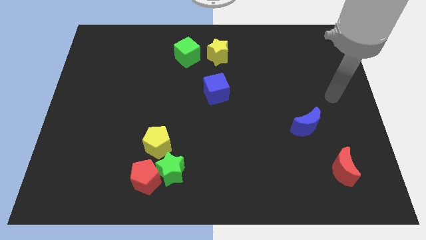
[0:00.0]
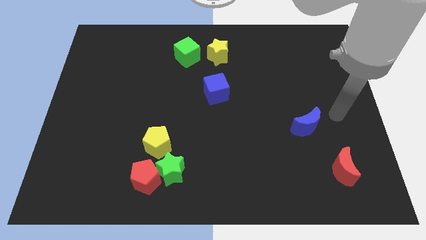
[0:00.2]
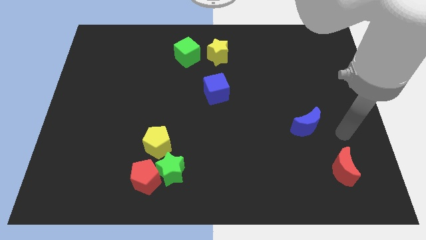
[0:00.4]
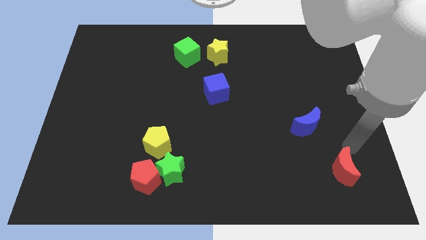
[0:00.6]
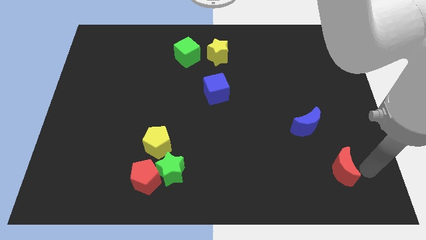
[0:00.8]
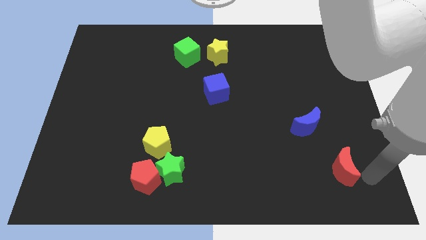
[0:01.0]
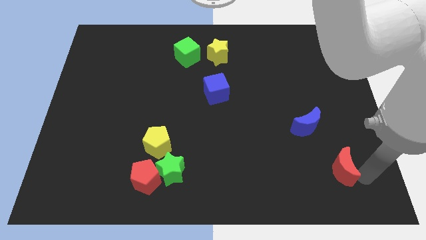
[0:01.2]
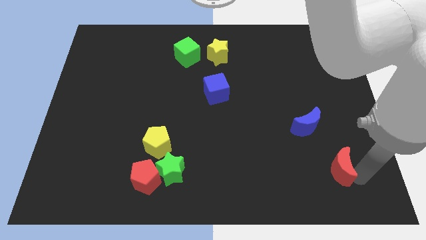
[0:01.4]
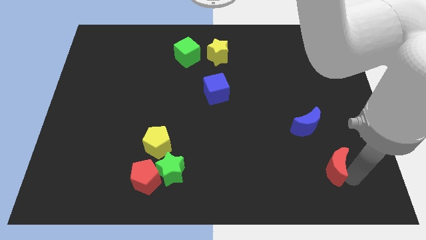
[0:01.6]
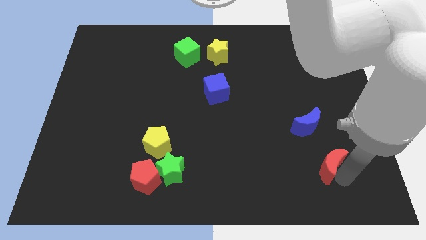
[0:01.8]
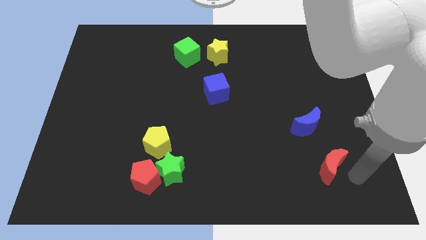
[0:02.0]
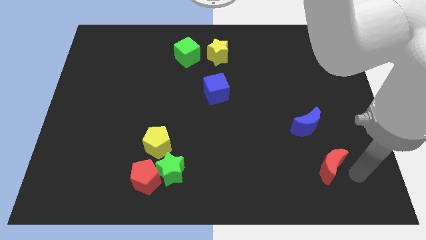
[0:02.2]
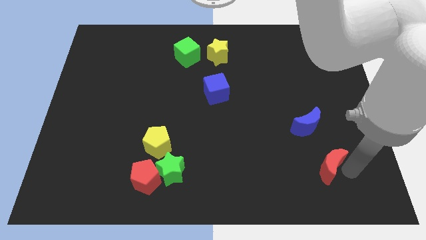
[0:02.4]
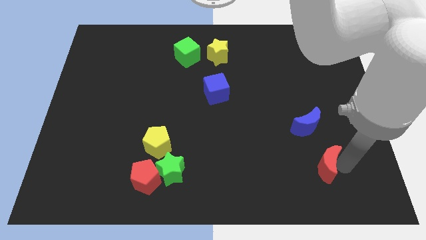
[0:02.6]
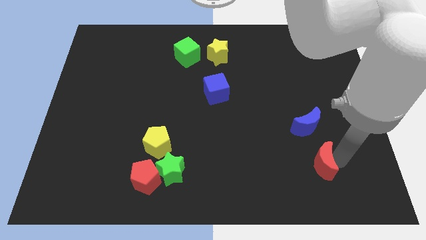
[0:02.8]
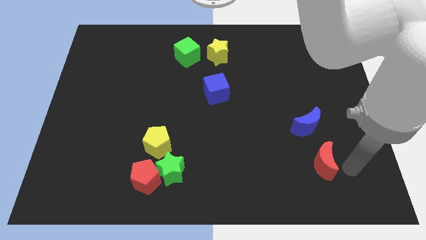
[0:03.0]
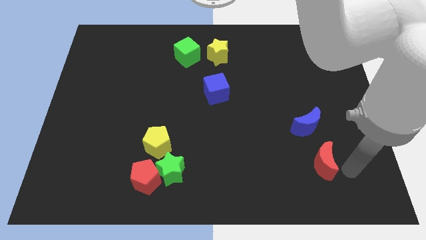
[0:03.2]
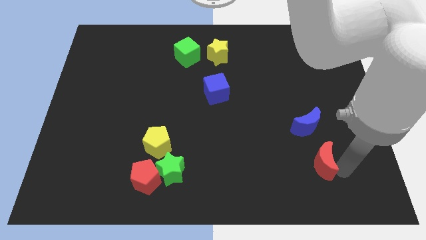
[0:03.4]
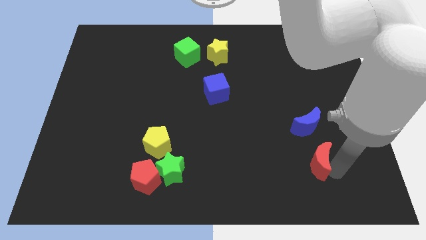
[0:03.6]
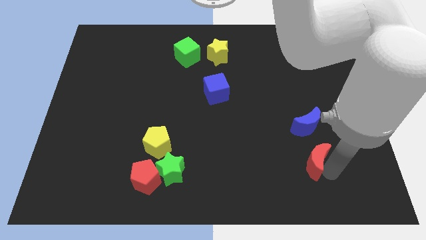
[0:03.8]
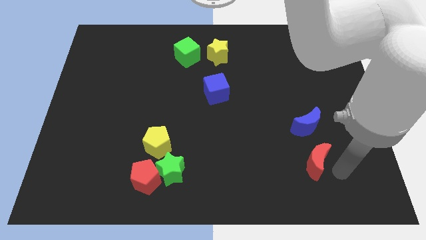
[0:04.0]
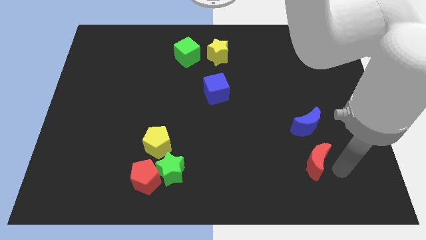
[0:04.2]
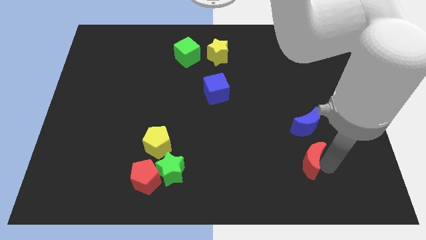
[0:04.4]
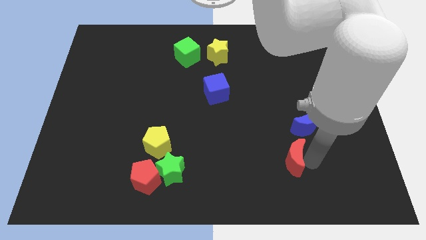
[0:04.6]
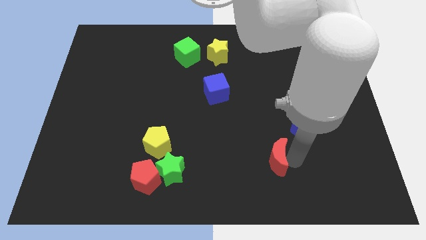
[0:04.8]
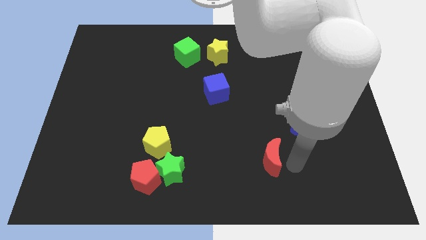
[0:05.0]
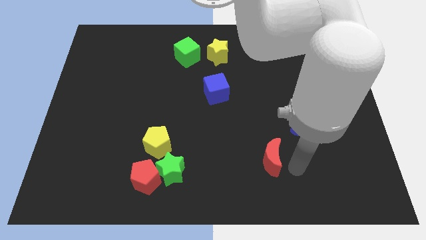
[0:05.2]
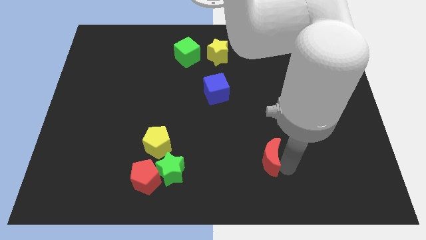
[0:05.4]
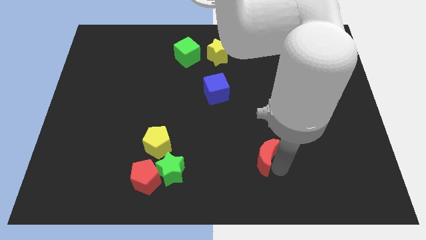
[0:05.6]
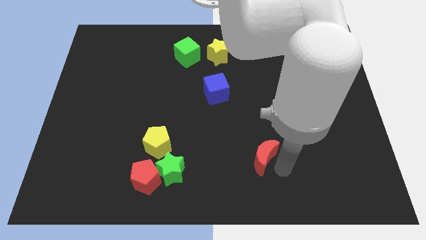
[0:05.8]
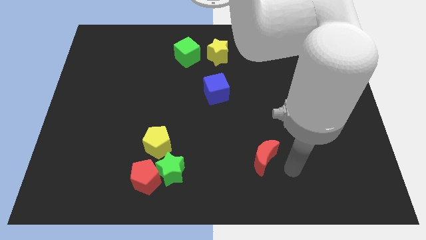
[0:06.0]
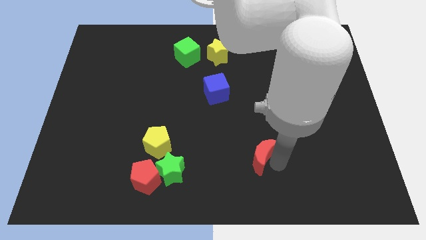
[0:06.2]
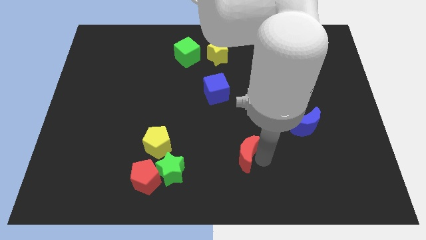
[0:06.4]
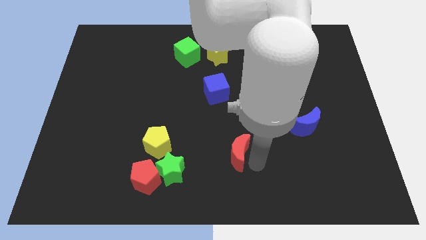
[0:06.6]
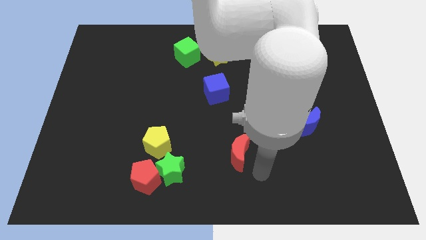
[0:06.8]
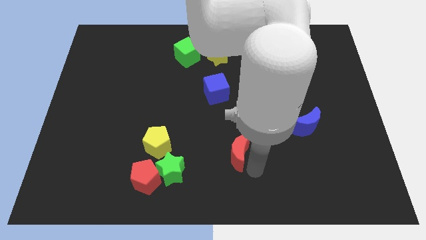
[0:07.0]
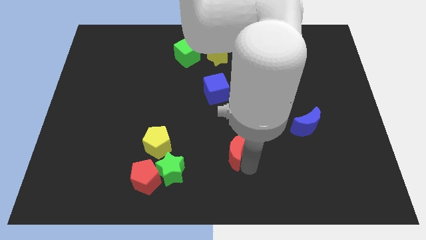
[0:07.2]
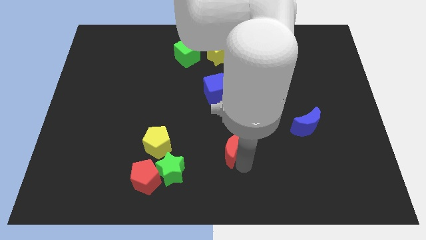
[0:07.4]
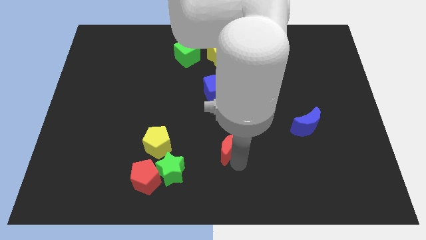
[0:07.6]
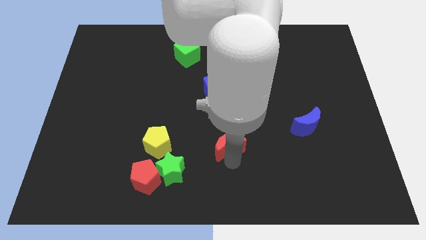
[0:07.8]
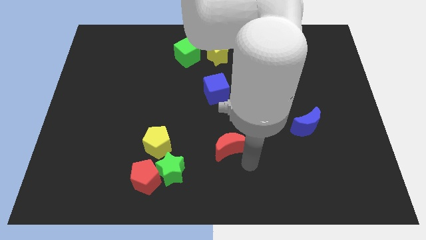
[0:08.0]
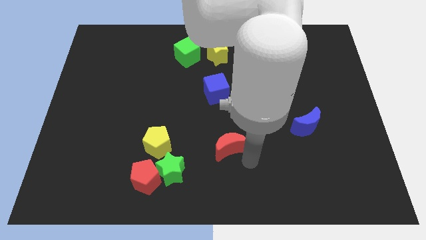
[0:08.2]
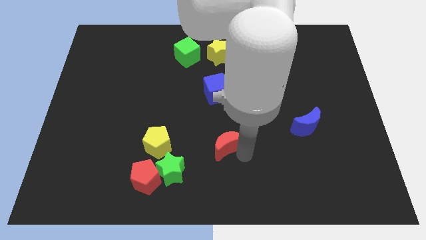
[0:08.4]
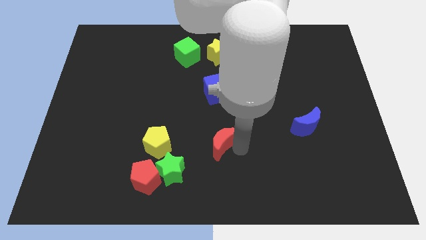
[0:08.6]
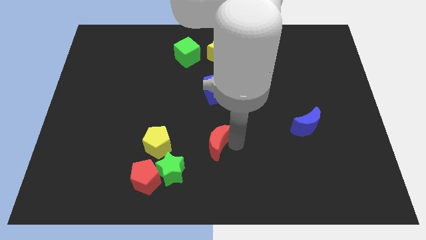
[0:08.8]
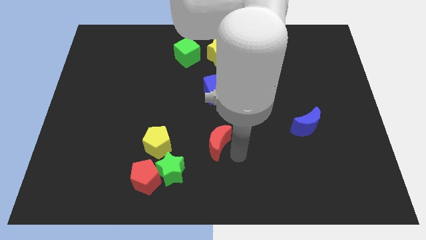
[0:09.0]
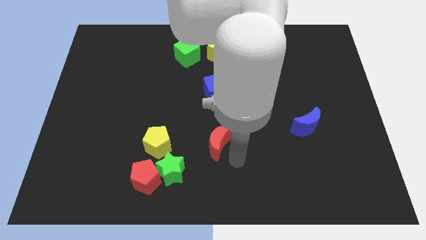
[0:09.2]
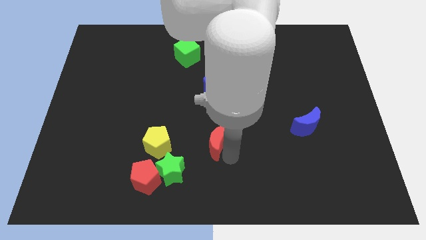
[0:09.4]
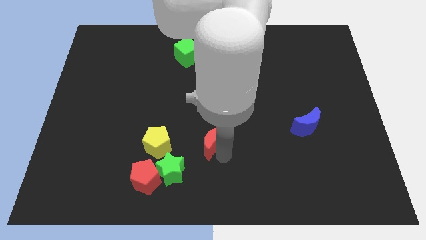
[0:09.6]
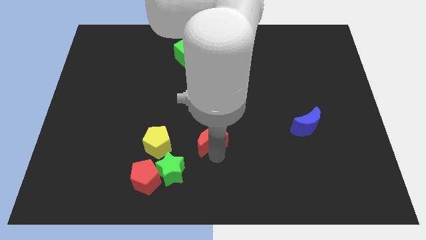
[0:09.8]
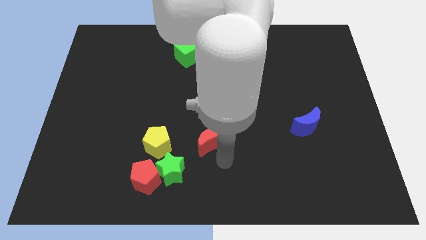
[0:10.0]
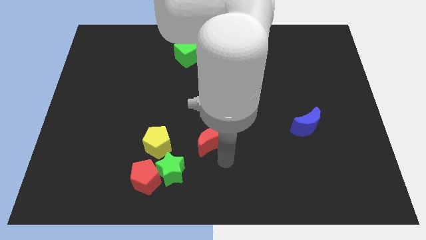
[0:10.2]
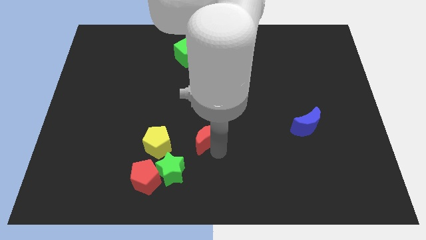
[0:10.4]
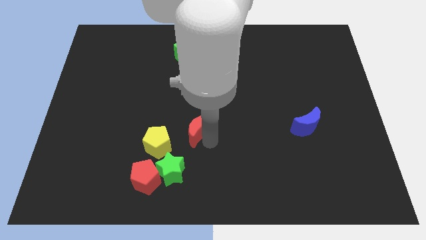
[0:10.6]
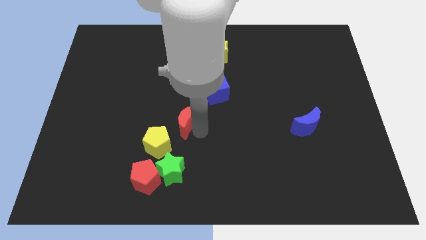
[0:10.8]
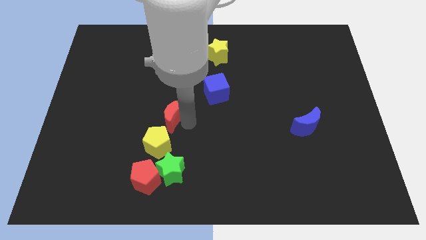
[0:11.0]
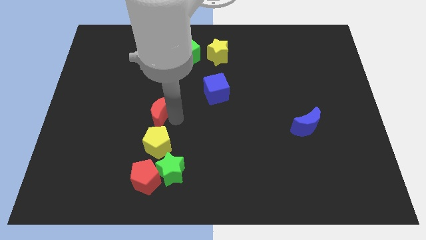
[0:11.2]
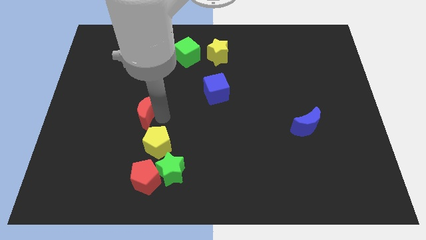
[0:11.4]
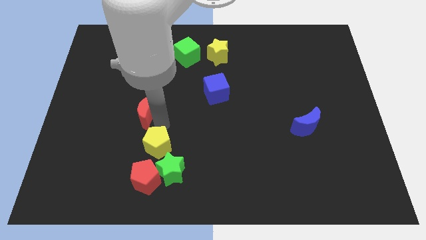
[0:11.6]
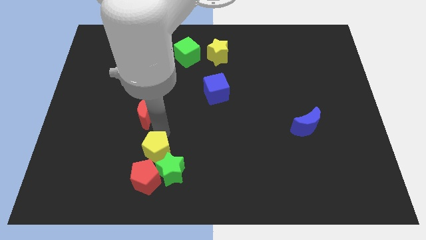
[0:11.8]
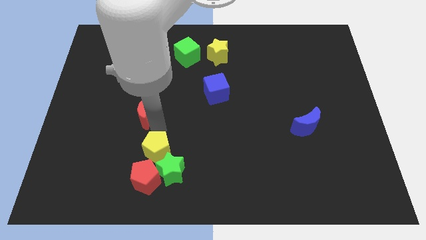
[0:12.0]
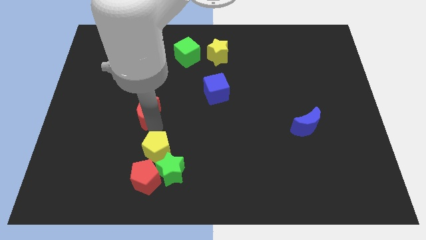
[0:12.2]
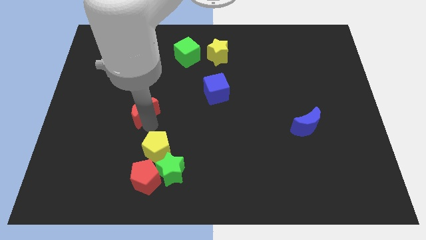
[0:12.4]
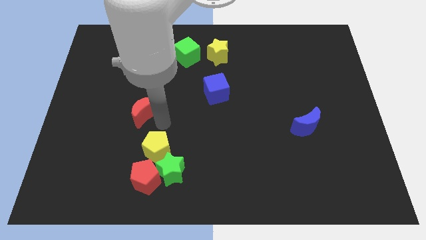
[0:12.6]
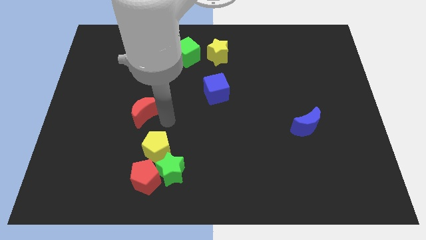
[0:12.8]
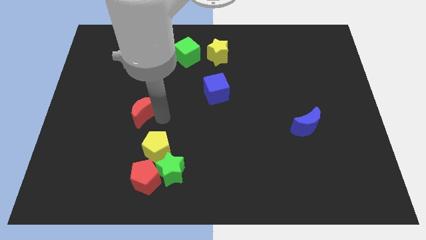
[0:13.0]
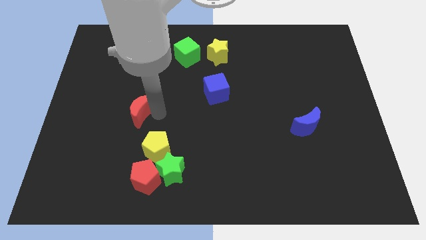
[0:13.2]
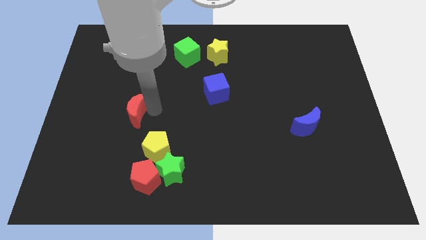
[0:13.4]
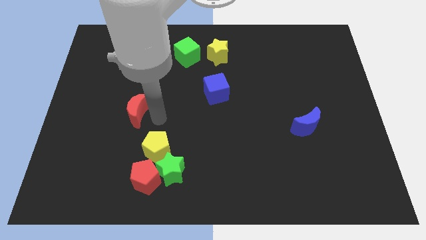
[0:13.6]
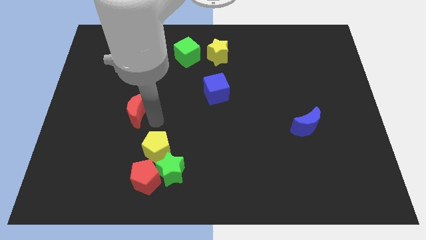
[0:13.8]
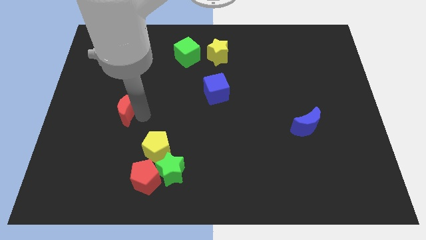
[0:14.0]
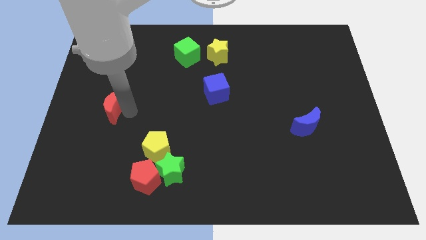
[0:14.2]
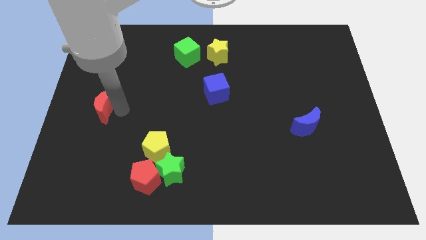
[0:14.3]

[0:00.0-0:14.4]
push the red moon to the left side of the board
